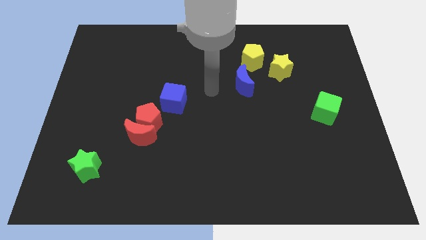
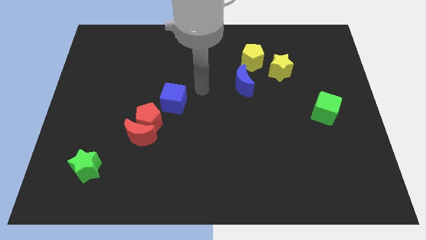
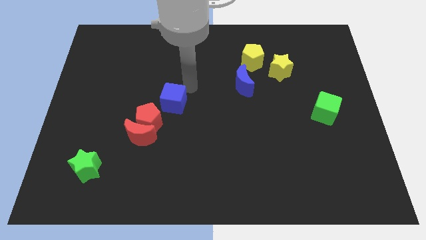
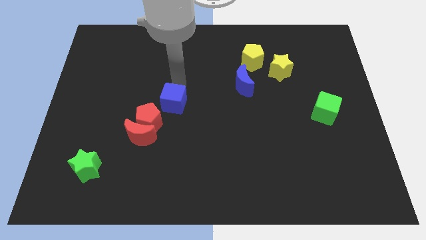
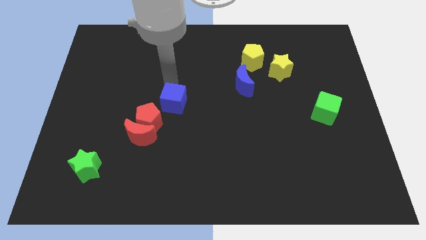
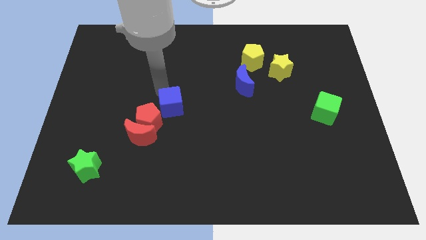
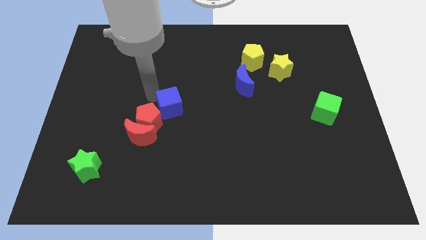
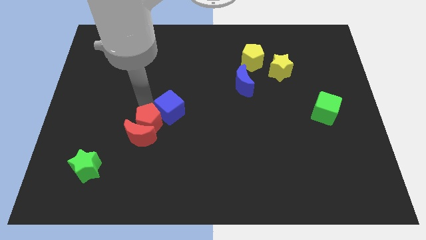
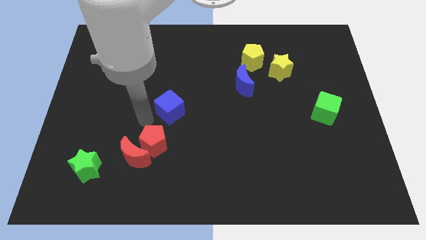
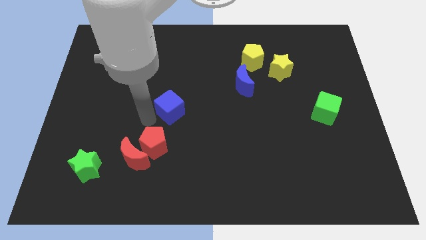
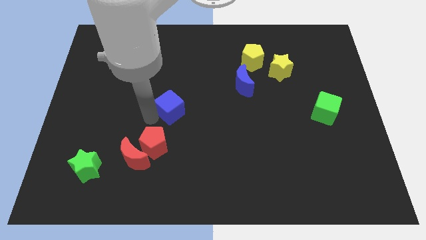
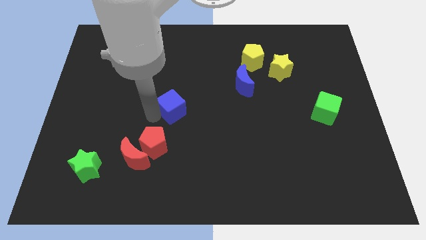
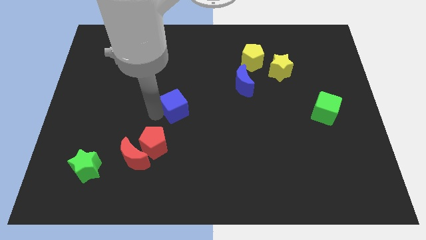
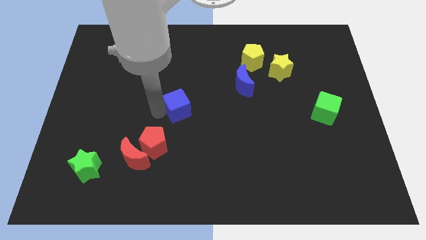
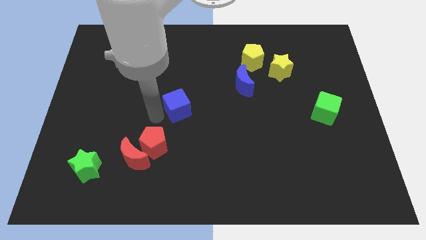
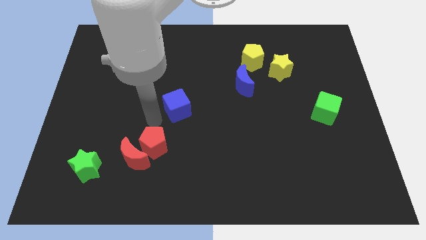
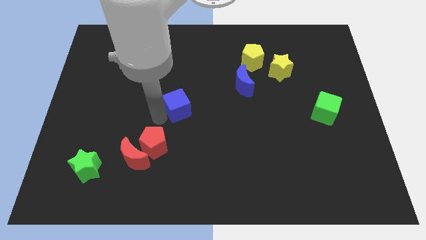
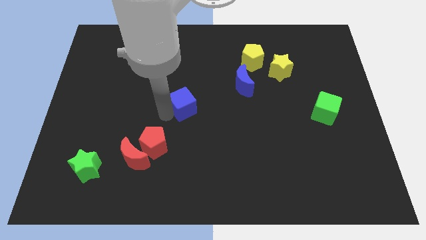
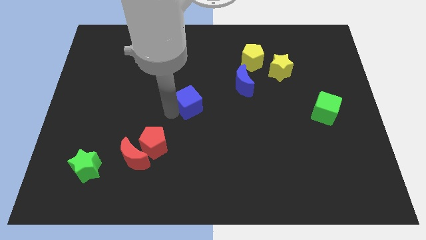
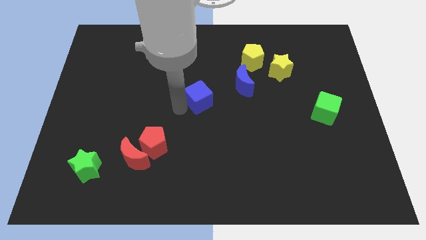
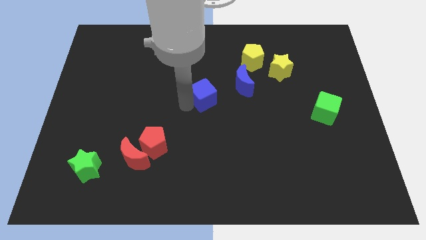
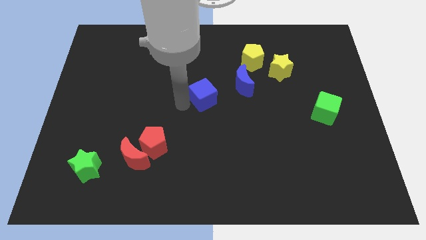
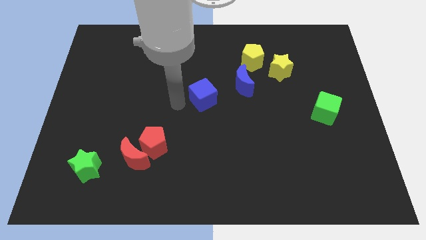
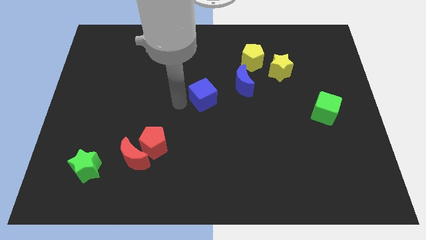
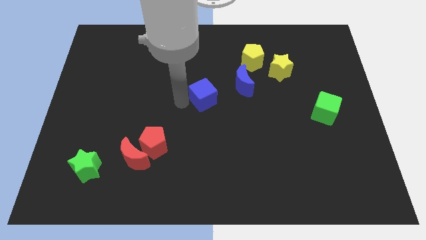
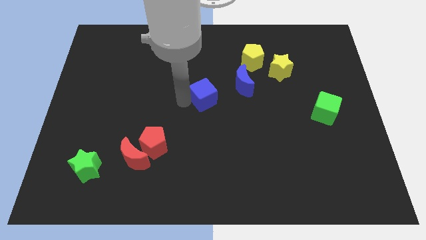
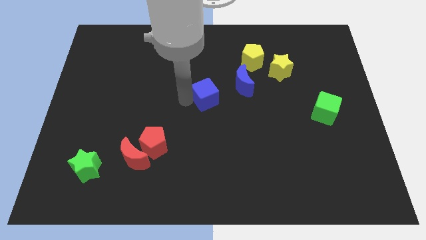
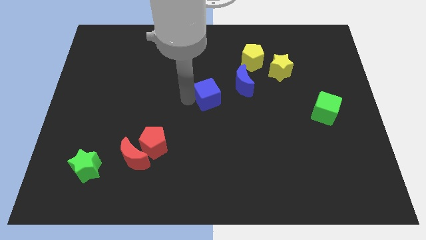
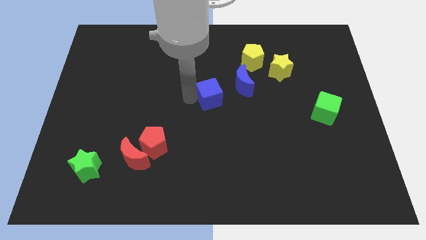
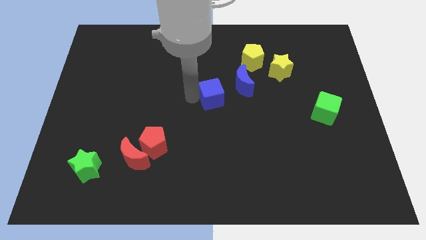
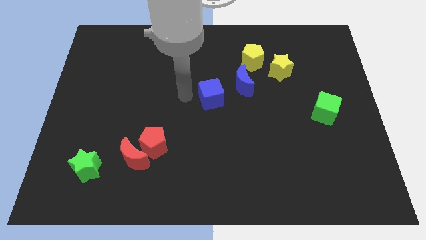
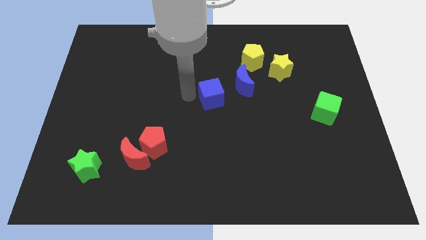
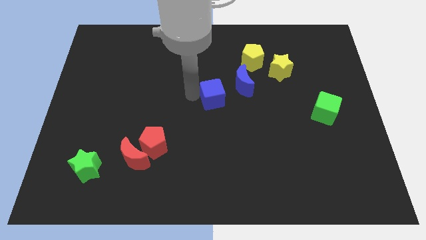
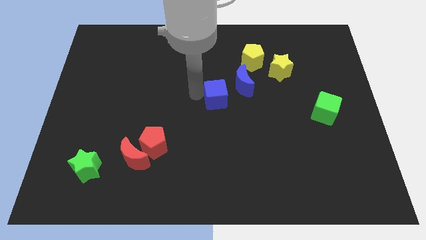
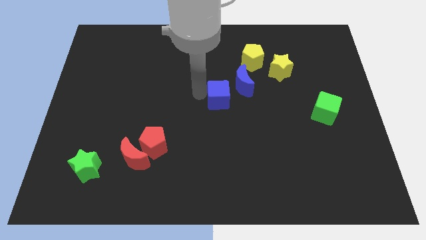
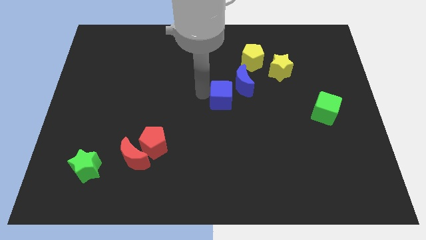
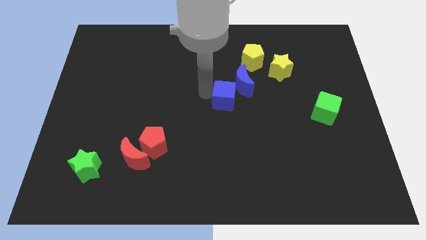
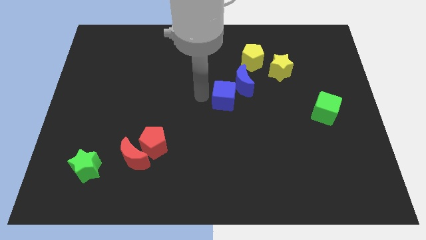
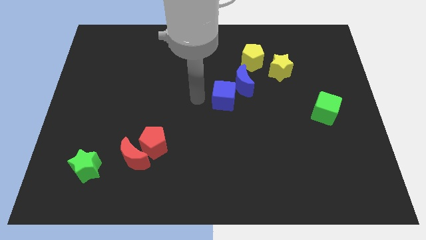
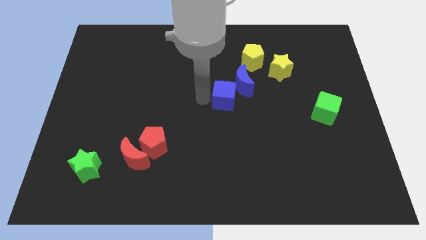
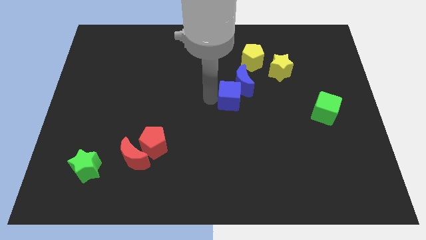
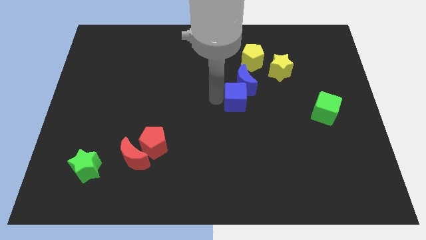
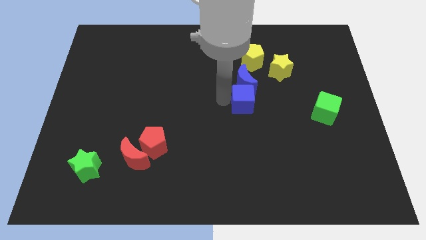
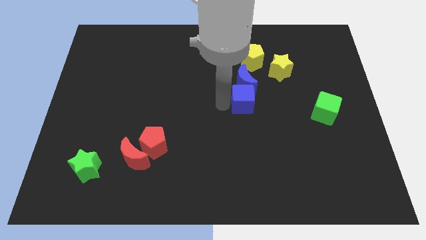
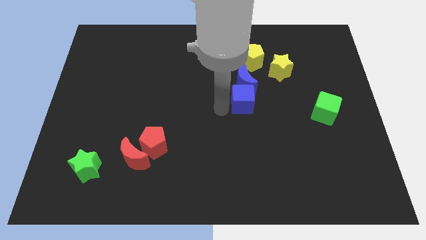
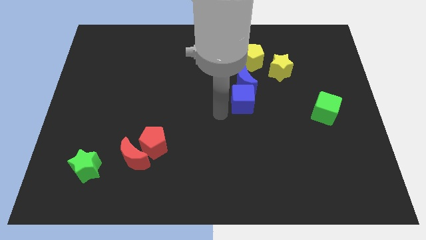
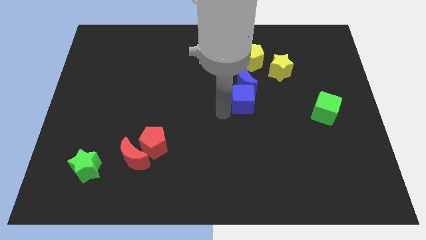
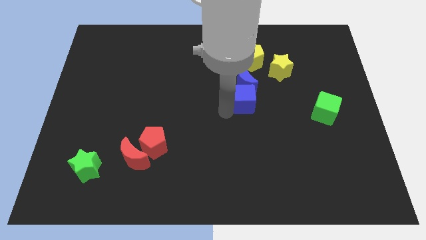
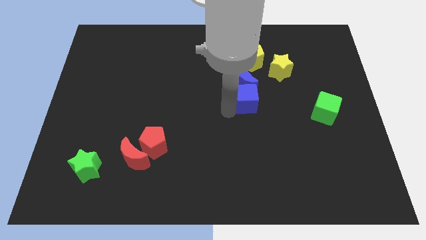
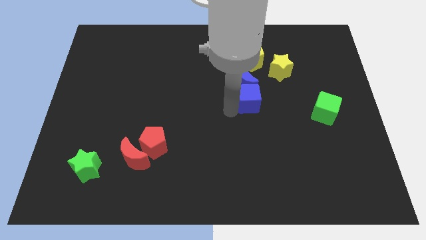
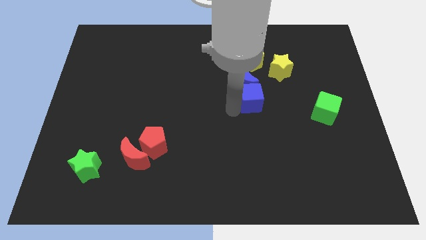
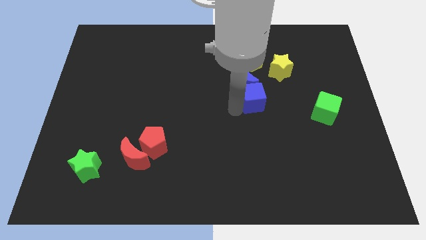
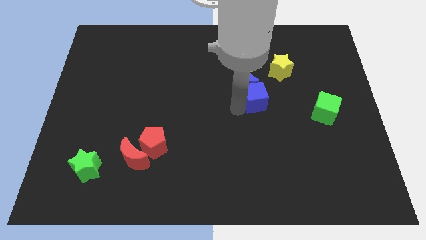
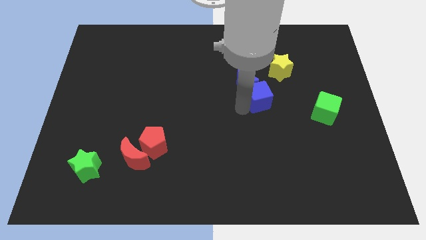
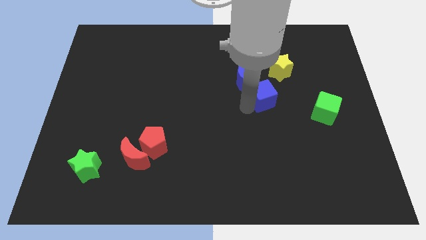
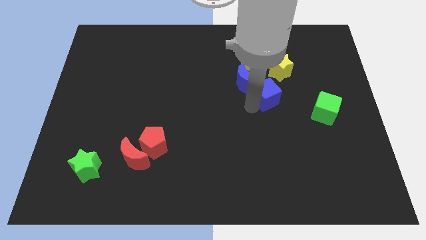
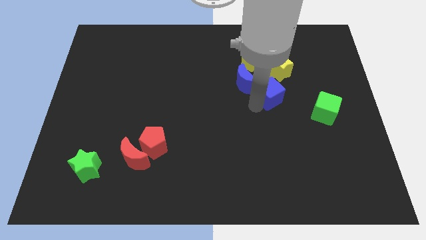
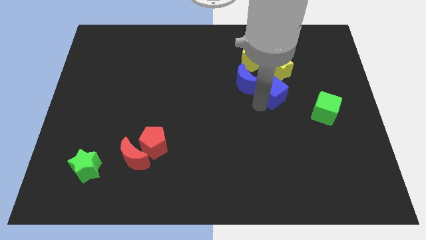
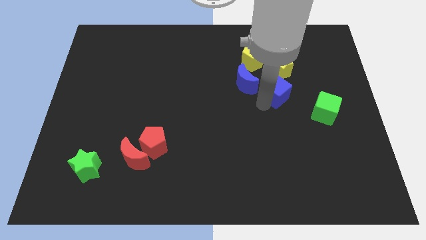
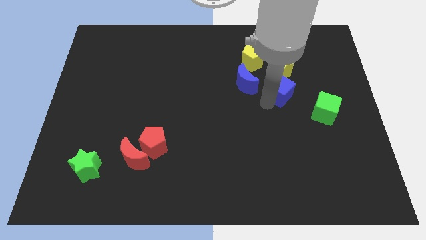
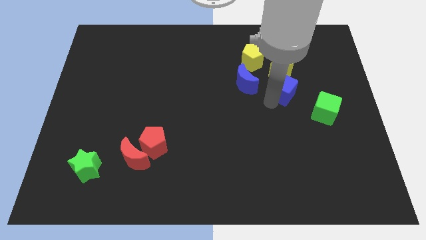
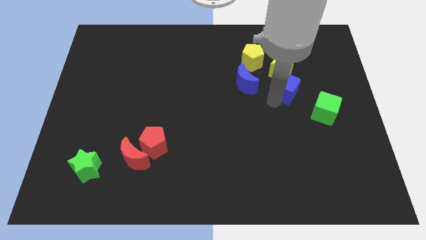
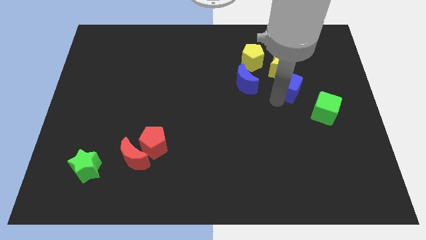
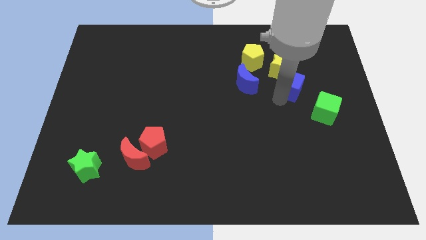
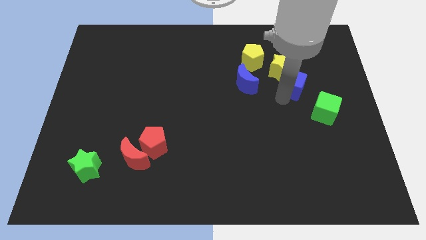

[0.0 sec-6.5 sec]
push the blue cube next to the yellow star
